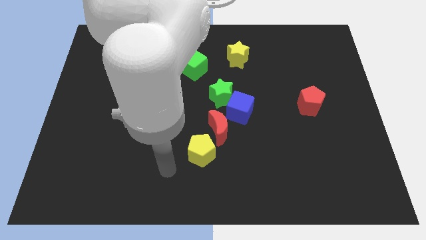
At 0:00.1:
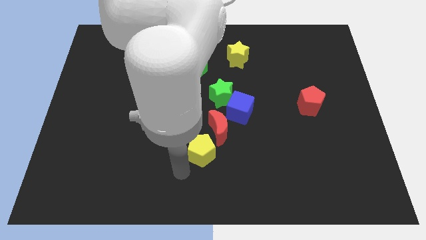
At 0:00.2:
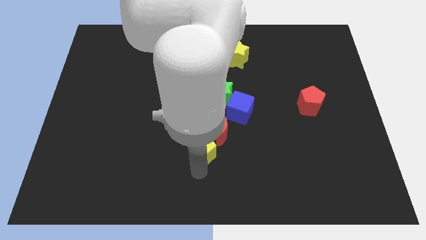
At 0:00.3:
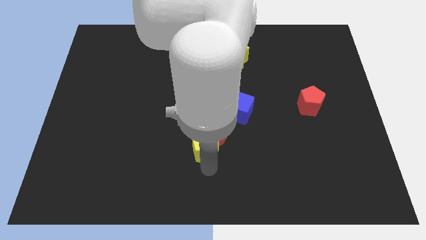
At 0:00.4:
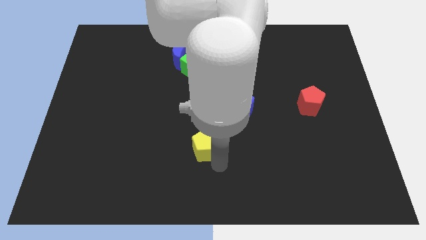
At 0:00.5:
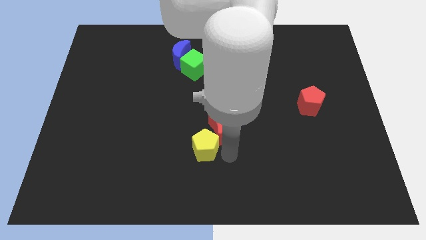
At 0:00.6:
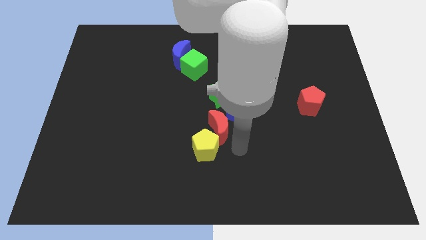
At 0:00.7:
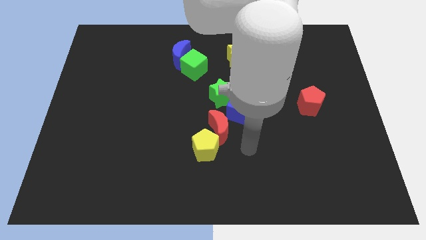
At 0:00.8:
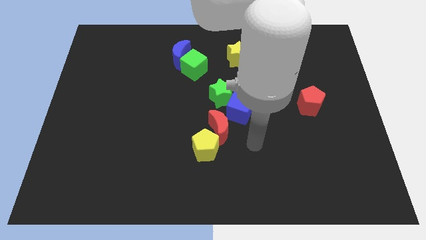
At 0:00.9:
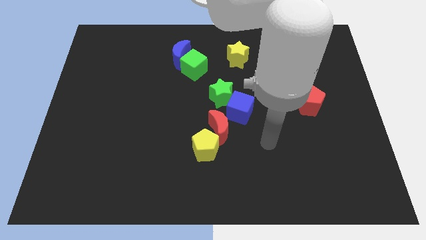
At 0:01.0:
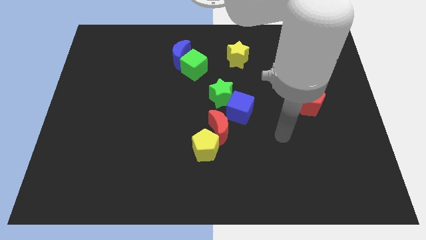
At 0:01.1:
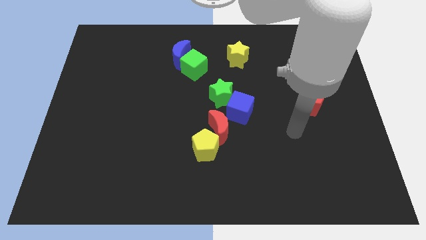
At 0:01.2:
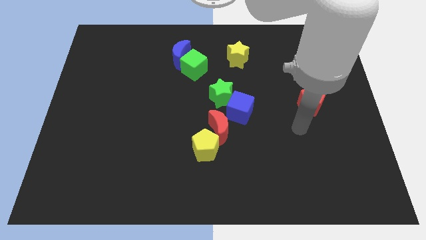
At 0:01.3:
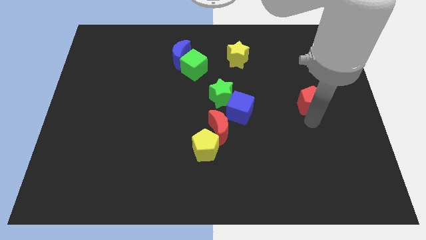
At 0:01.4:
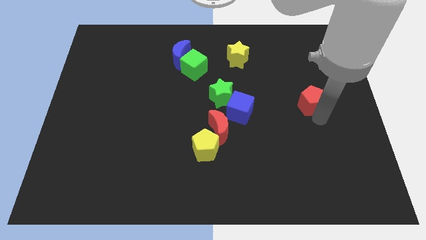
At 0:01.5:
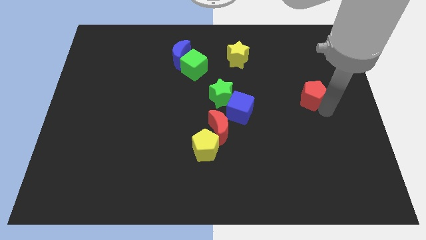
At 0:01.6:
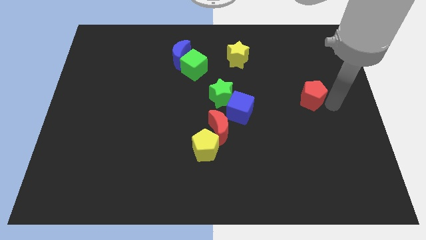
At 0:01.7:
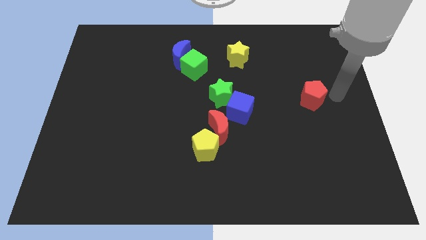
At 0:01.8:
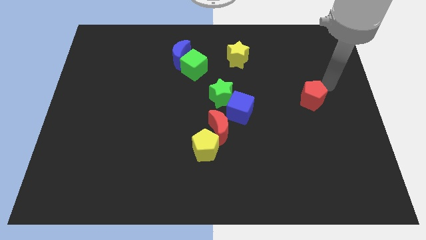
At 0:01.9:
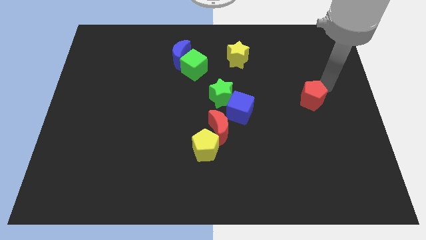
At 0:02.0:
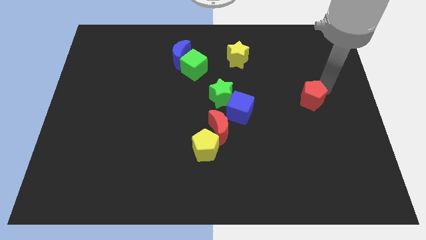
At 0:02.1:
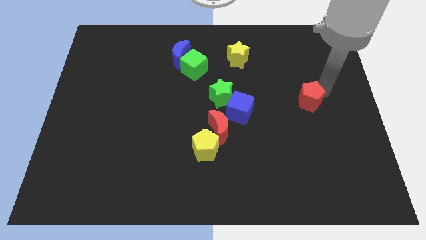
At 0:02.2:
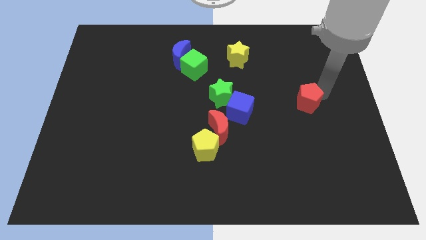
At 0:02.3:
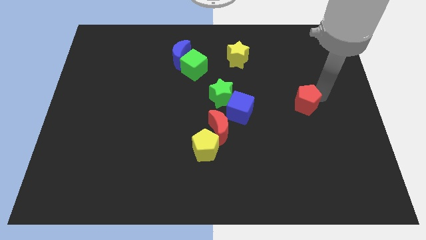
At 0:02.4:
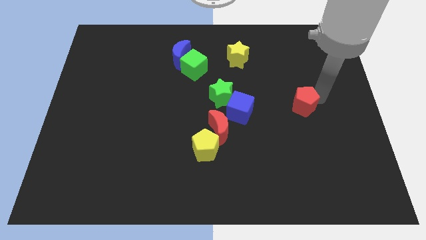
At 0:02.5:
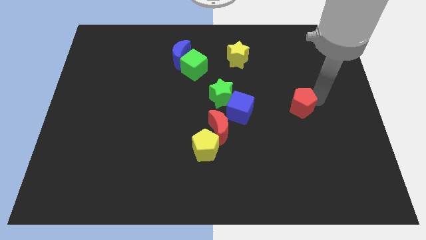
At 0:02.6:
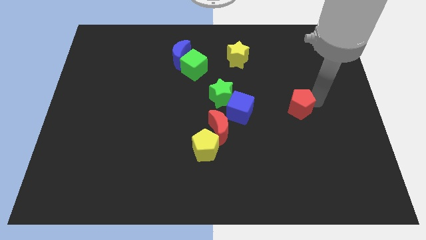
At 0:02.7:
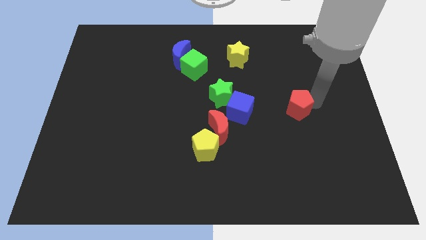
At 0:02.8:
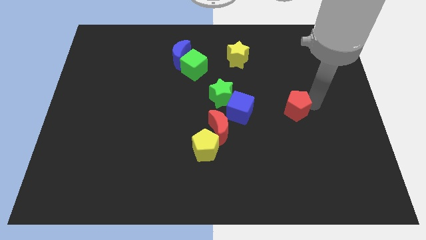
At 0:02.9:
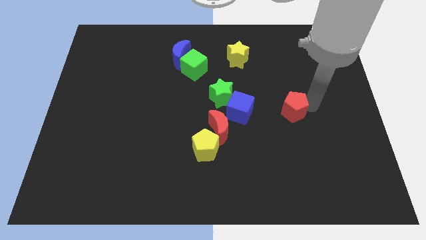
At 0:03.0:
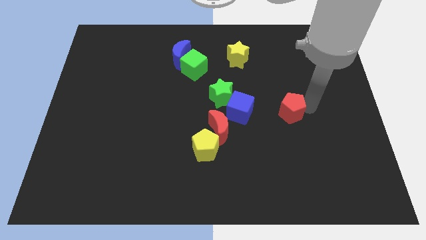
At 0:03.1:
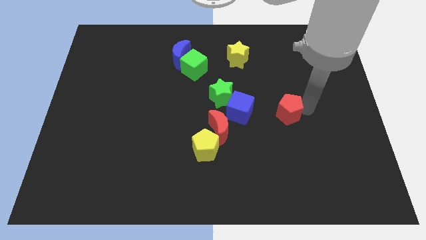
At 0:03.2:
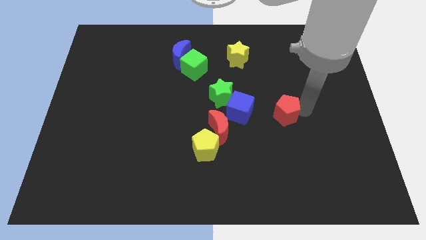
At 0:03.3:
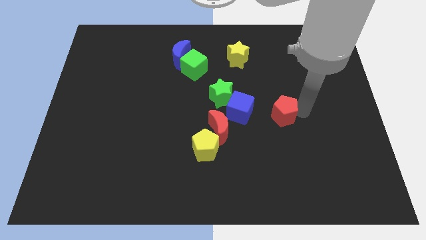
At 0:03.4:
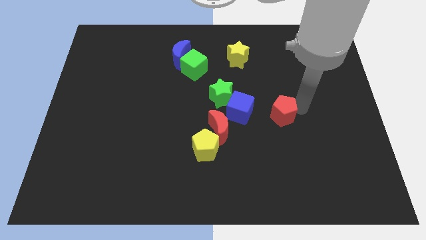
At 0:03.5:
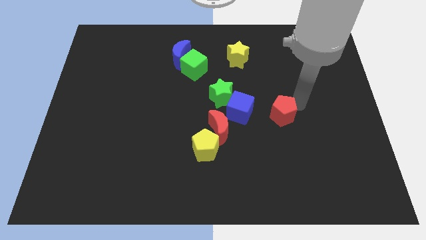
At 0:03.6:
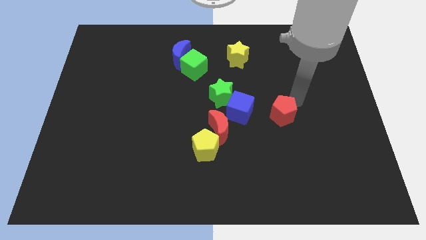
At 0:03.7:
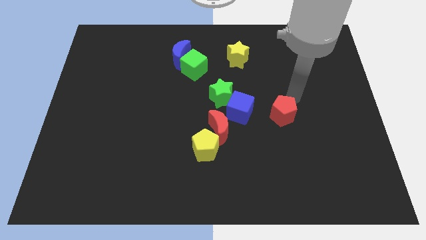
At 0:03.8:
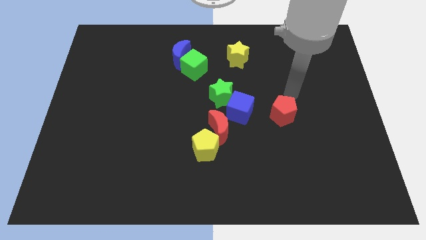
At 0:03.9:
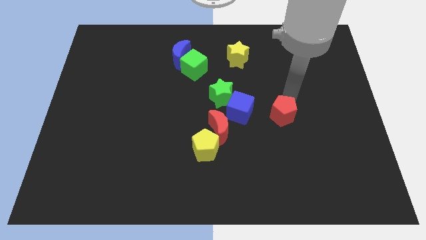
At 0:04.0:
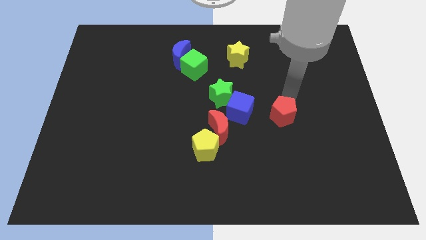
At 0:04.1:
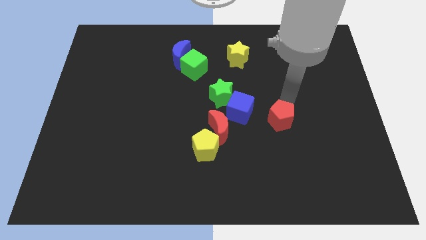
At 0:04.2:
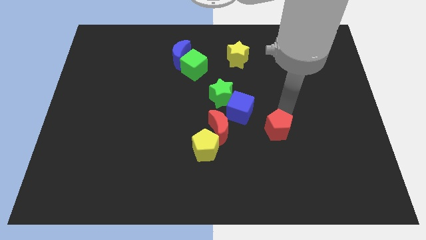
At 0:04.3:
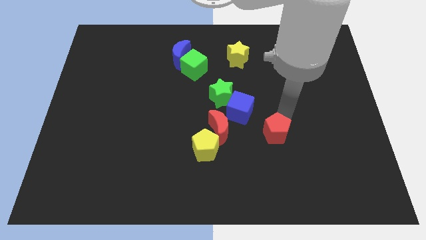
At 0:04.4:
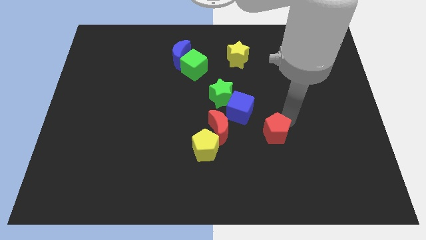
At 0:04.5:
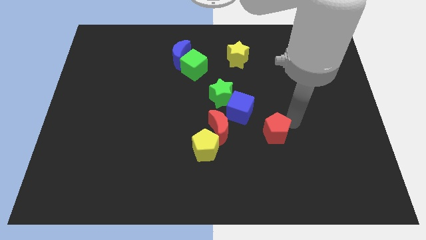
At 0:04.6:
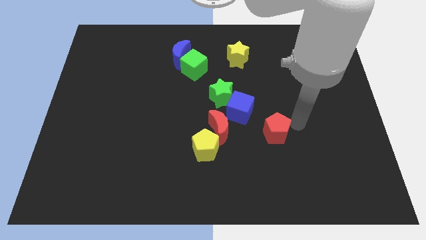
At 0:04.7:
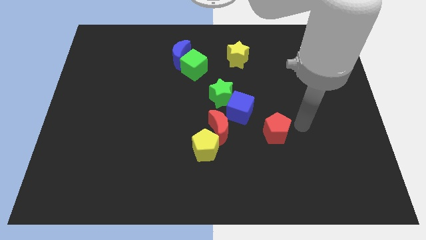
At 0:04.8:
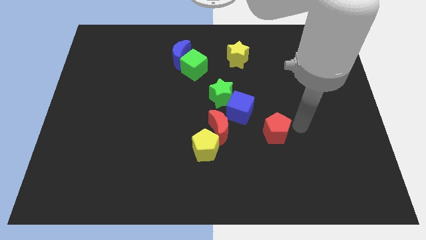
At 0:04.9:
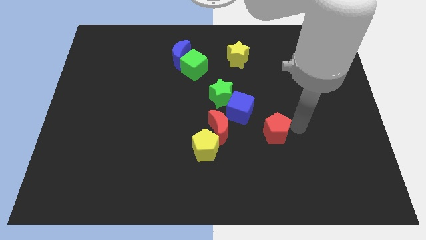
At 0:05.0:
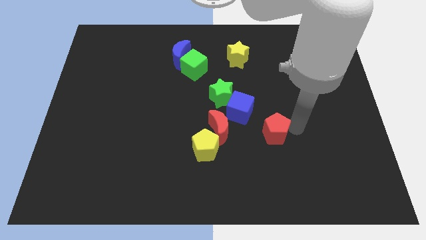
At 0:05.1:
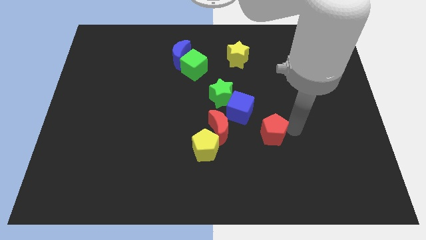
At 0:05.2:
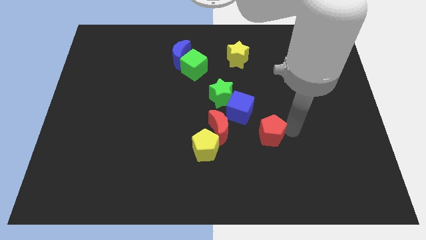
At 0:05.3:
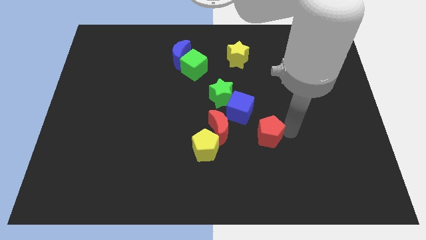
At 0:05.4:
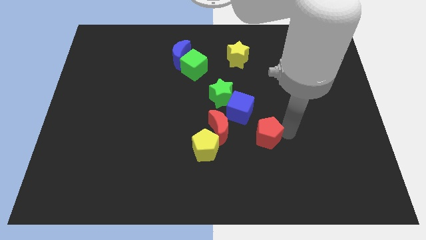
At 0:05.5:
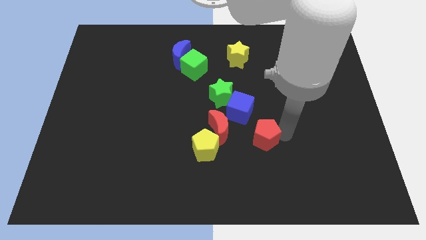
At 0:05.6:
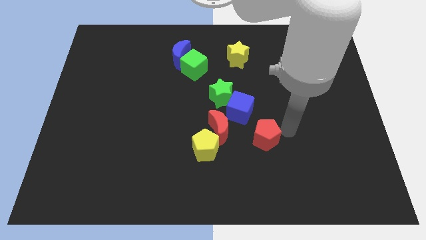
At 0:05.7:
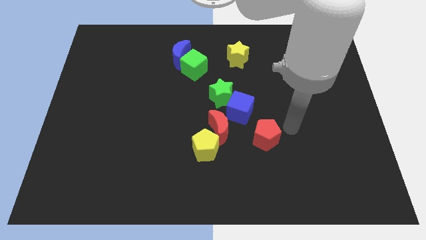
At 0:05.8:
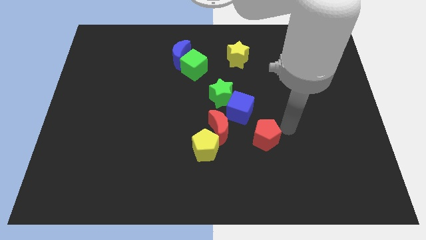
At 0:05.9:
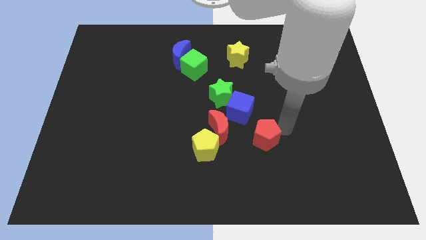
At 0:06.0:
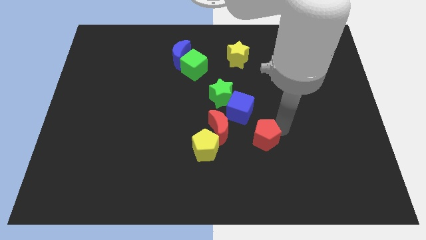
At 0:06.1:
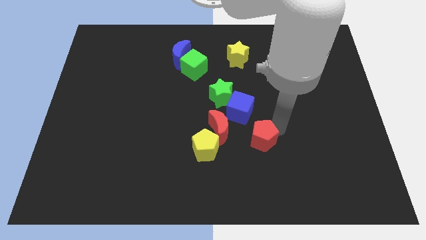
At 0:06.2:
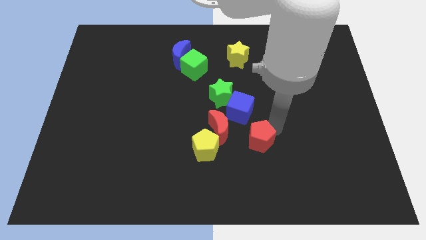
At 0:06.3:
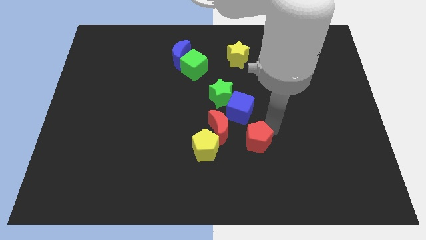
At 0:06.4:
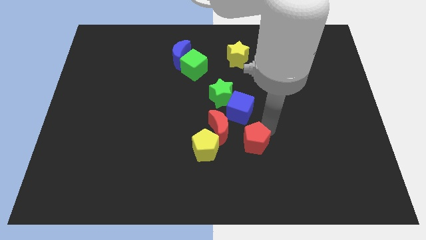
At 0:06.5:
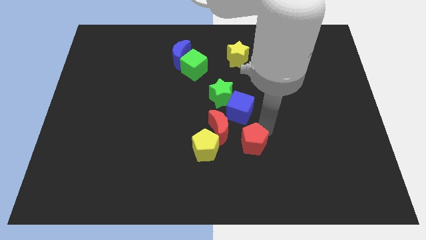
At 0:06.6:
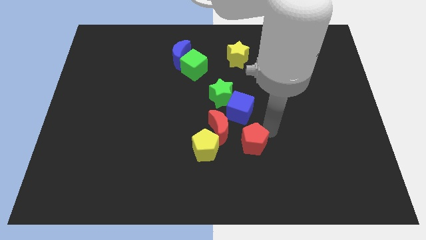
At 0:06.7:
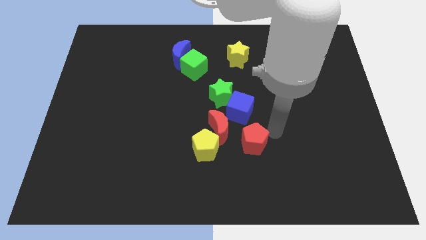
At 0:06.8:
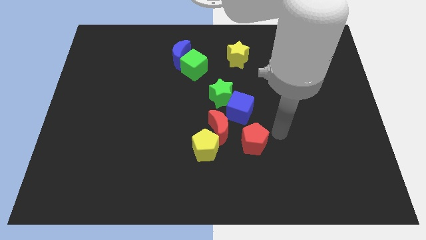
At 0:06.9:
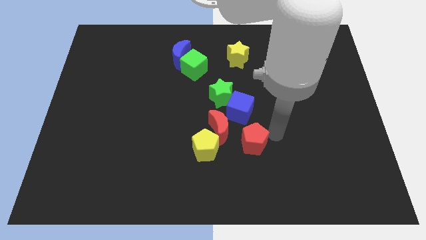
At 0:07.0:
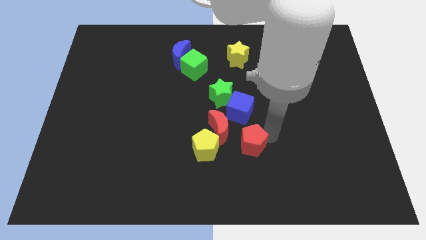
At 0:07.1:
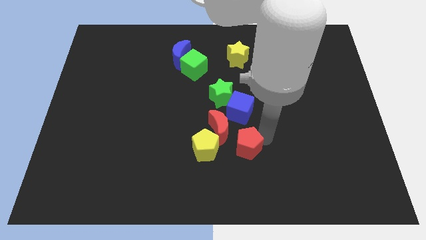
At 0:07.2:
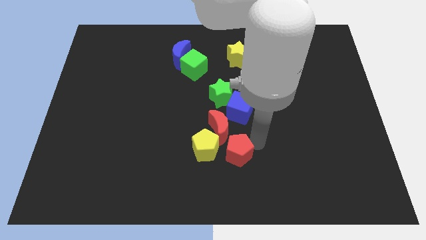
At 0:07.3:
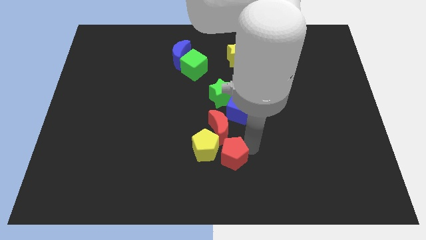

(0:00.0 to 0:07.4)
move the red pentagon towards the yellow pentagon
